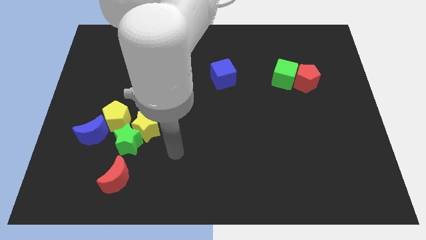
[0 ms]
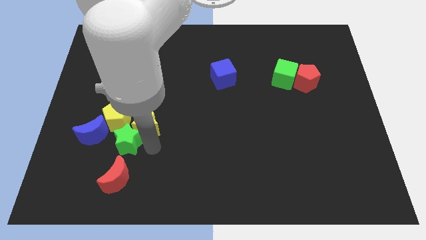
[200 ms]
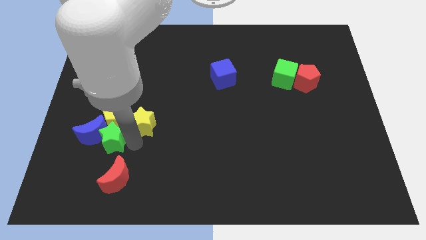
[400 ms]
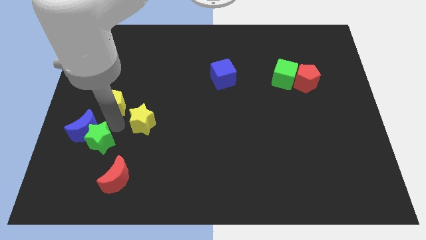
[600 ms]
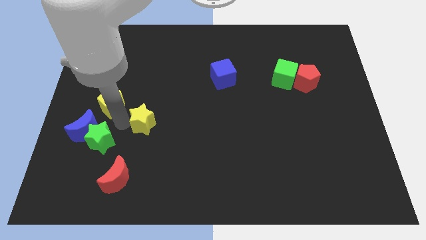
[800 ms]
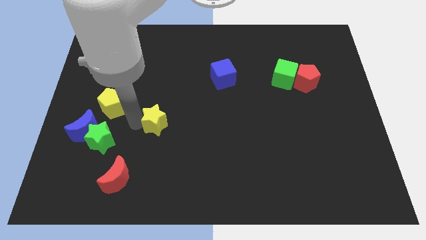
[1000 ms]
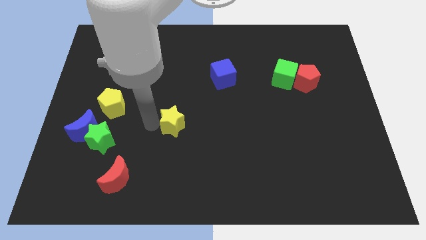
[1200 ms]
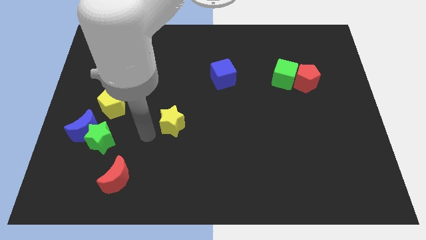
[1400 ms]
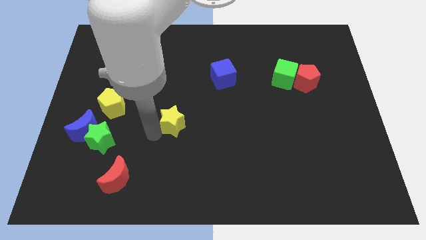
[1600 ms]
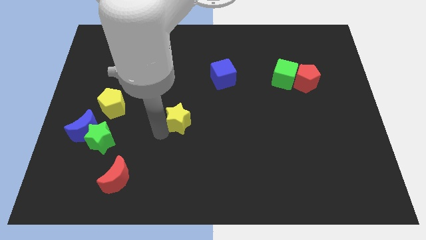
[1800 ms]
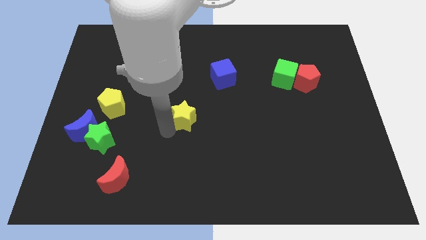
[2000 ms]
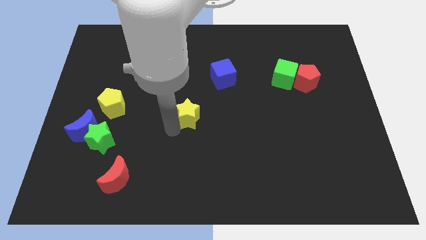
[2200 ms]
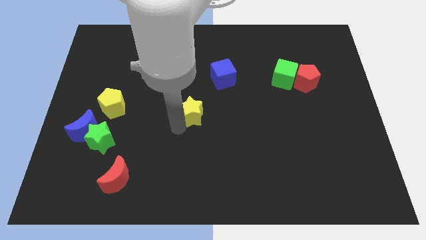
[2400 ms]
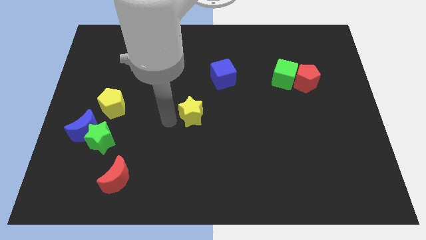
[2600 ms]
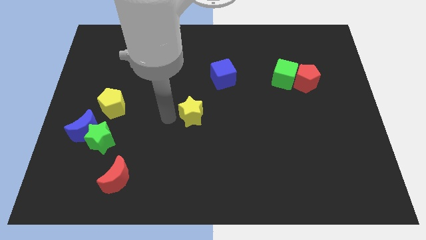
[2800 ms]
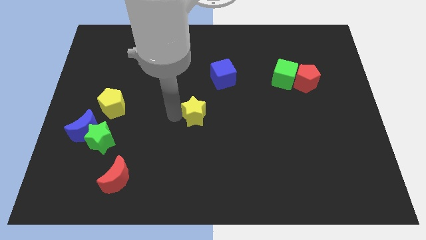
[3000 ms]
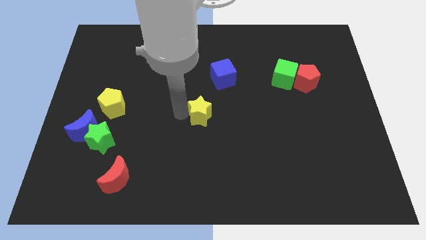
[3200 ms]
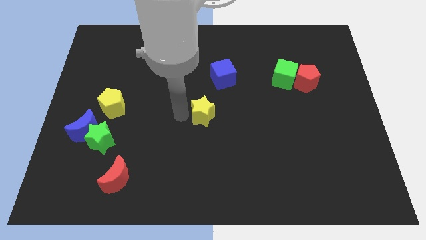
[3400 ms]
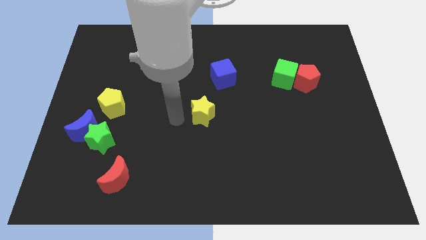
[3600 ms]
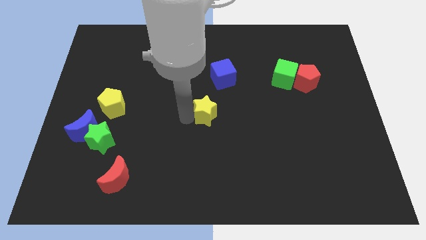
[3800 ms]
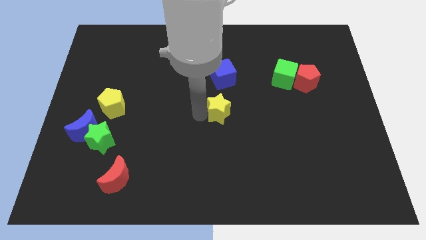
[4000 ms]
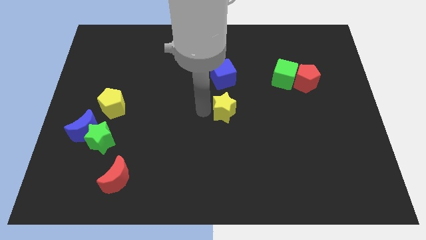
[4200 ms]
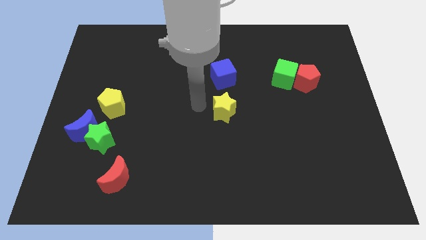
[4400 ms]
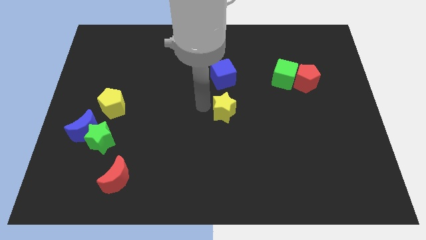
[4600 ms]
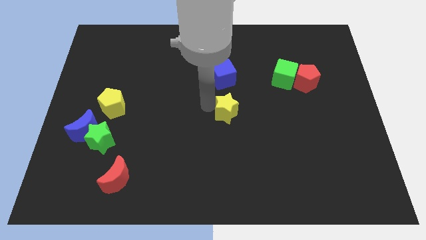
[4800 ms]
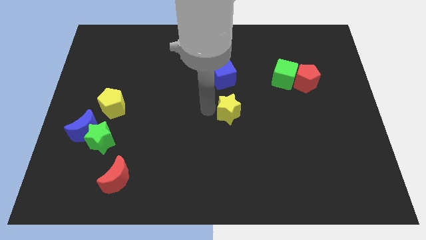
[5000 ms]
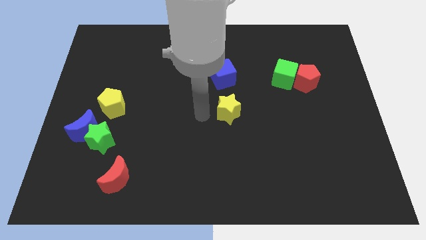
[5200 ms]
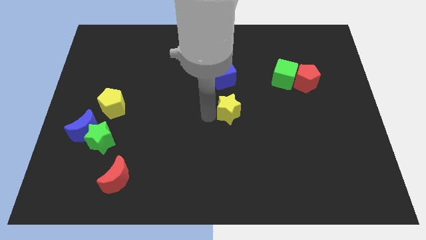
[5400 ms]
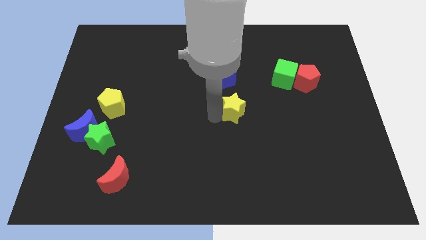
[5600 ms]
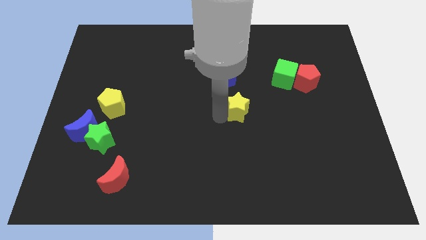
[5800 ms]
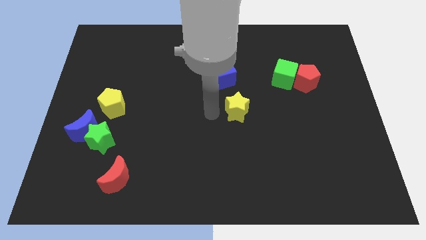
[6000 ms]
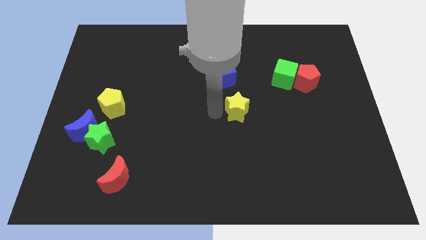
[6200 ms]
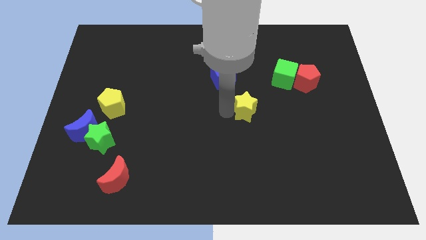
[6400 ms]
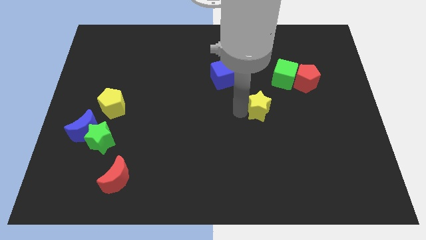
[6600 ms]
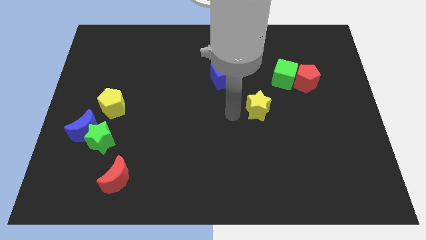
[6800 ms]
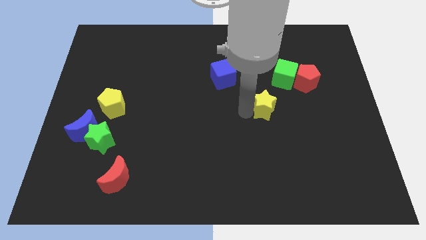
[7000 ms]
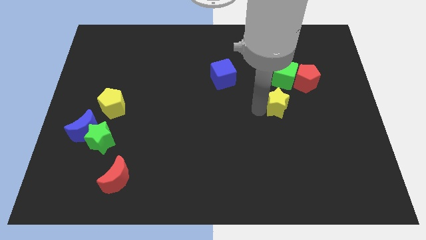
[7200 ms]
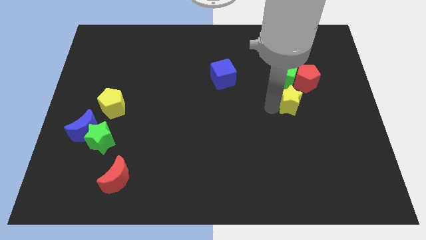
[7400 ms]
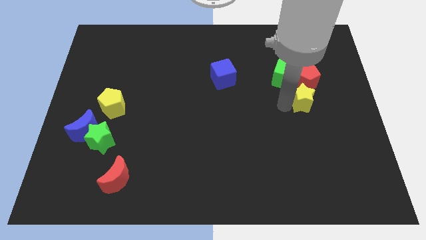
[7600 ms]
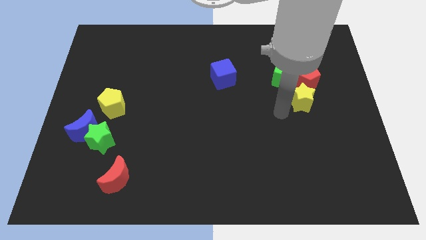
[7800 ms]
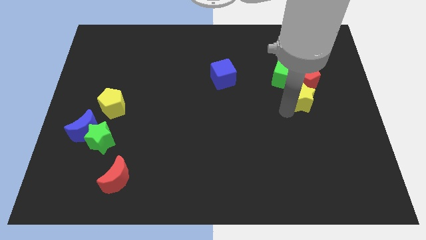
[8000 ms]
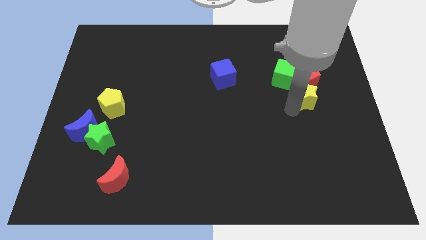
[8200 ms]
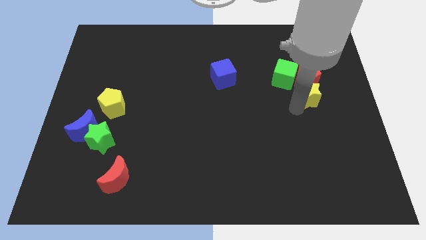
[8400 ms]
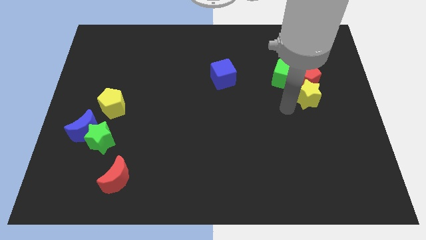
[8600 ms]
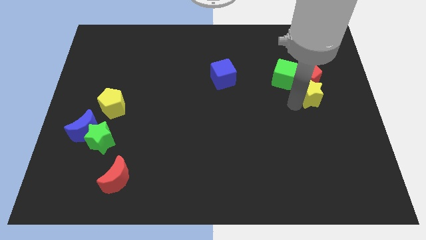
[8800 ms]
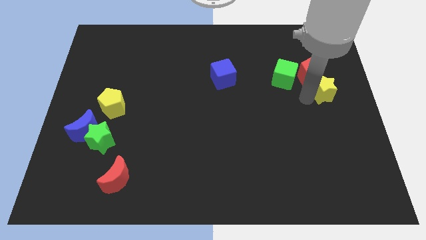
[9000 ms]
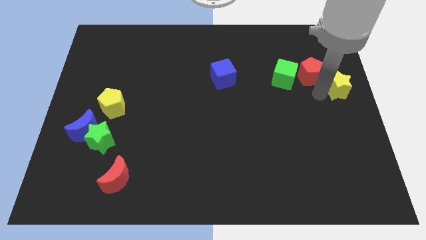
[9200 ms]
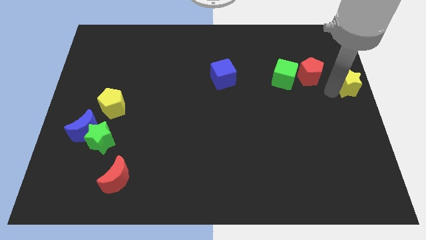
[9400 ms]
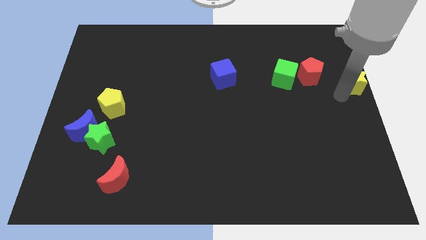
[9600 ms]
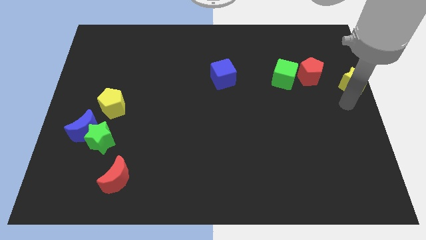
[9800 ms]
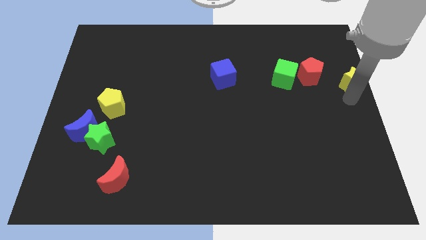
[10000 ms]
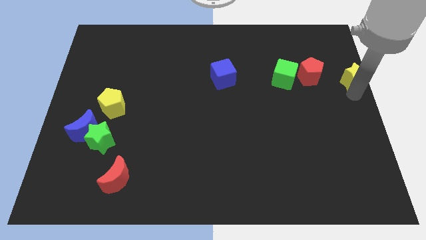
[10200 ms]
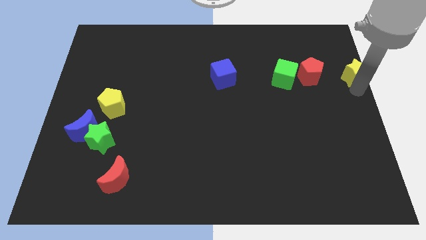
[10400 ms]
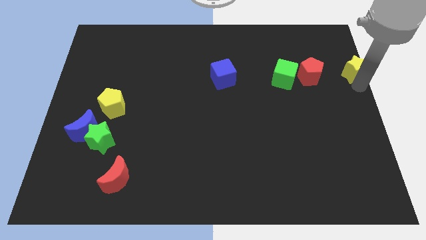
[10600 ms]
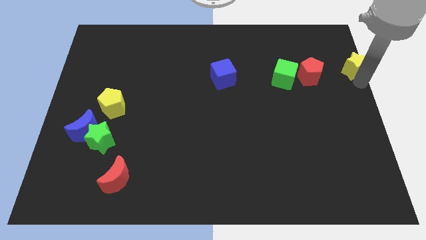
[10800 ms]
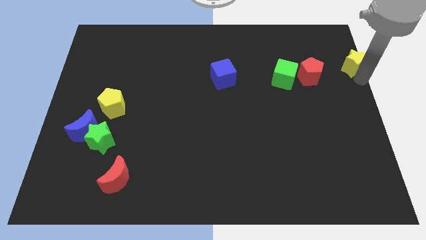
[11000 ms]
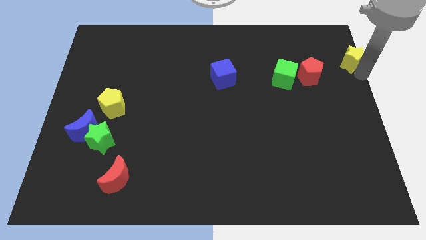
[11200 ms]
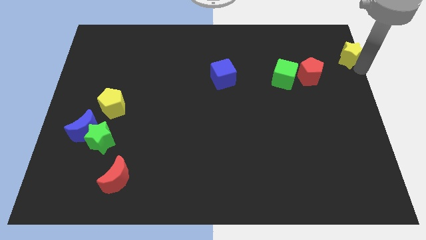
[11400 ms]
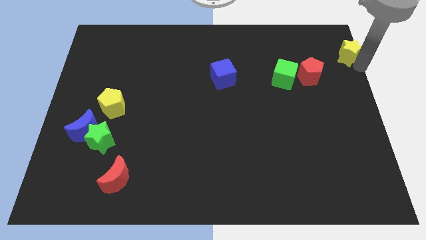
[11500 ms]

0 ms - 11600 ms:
push the yellow star to the top right corner

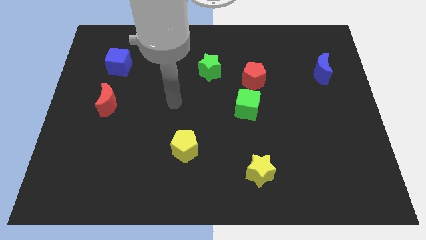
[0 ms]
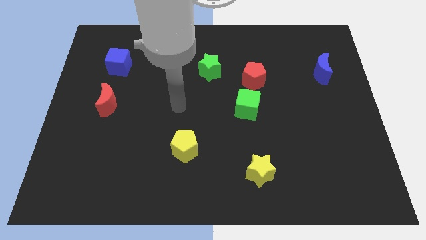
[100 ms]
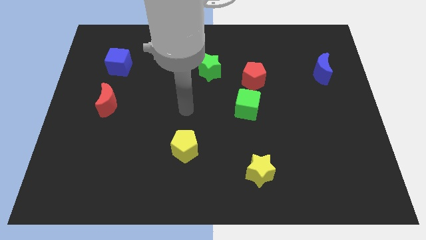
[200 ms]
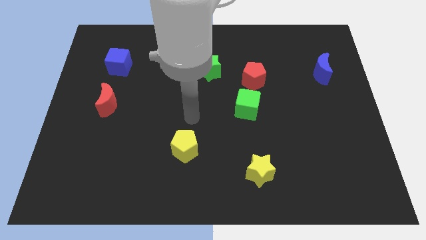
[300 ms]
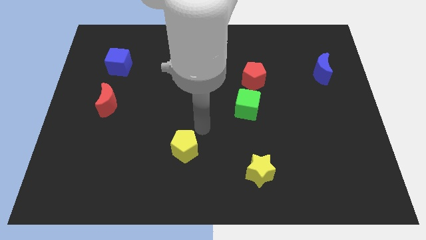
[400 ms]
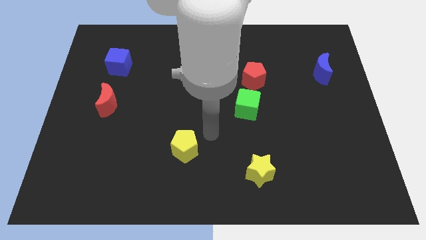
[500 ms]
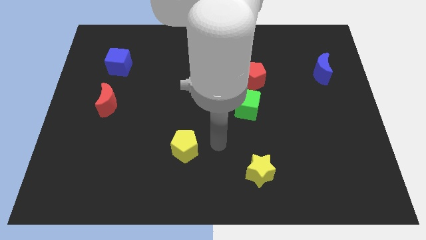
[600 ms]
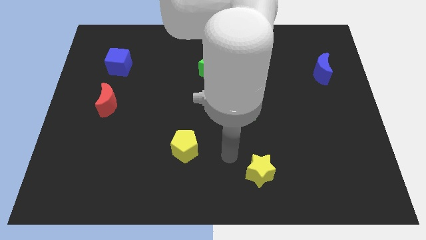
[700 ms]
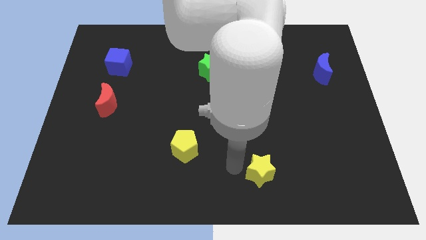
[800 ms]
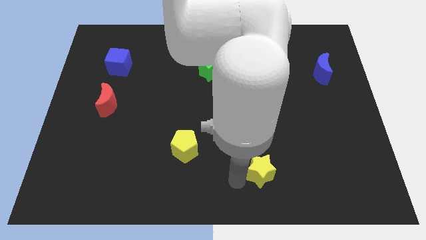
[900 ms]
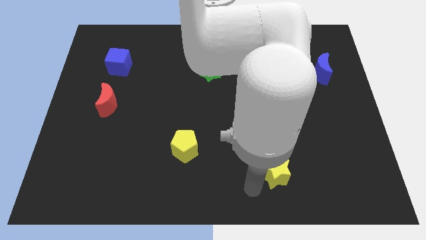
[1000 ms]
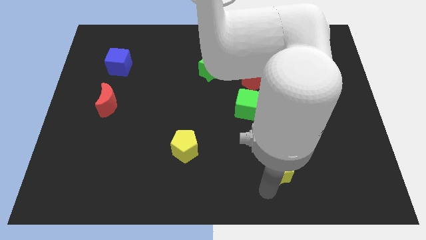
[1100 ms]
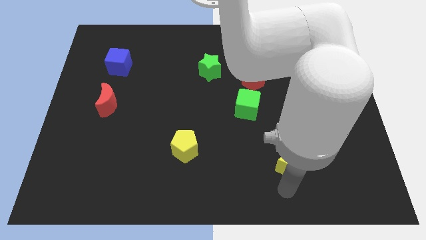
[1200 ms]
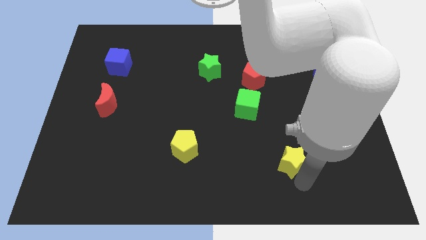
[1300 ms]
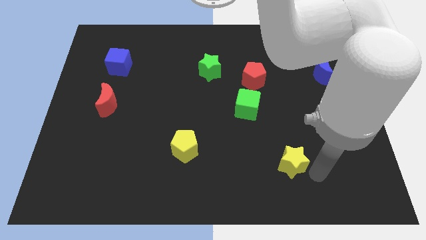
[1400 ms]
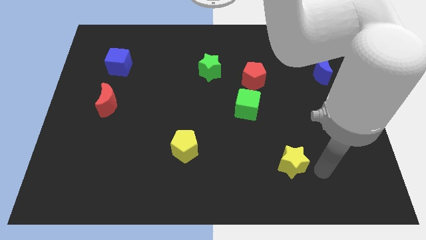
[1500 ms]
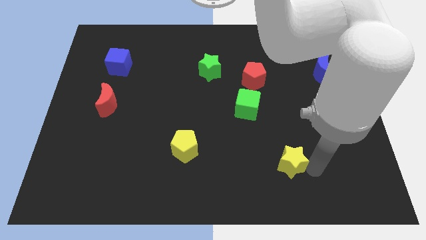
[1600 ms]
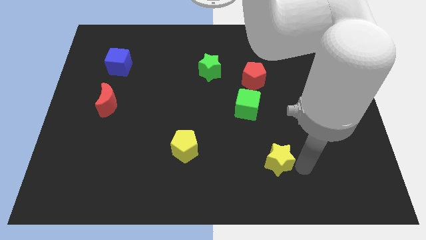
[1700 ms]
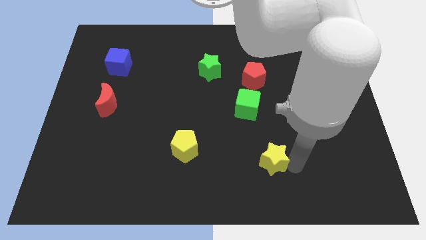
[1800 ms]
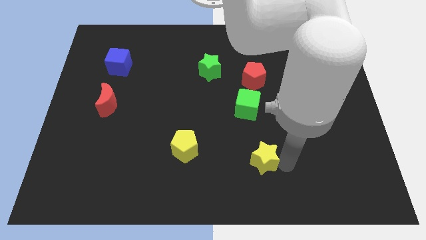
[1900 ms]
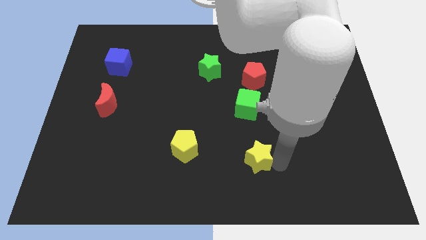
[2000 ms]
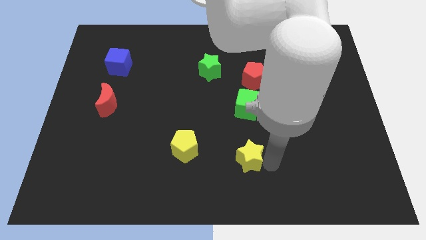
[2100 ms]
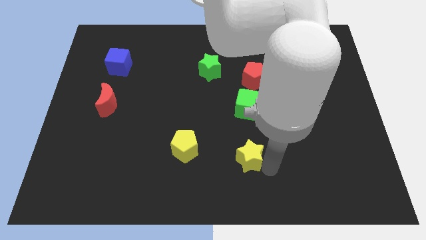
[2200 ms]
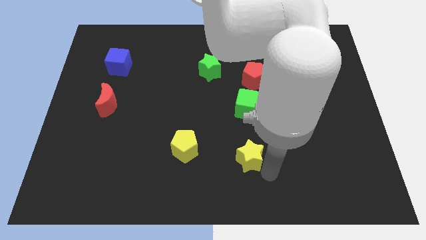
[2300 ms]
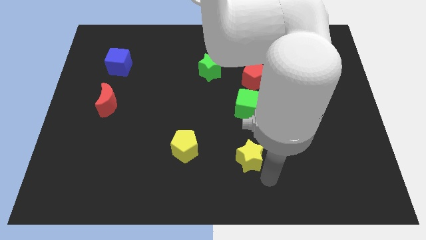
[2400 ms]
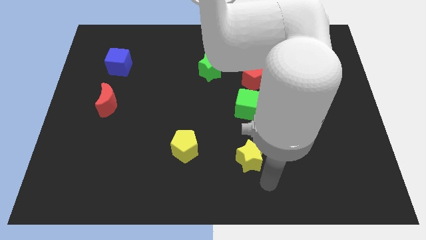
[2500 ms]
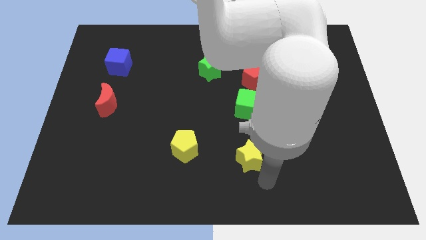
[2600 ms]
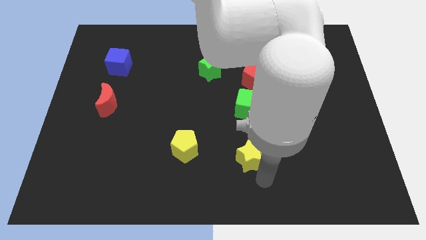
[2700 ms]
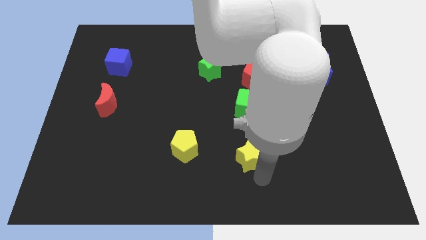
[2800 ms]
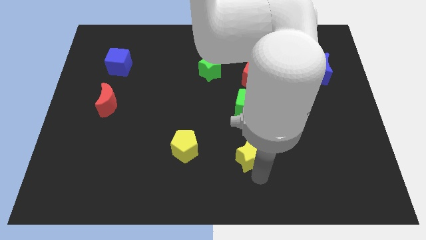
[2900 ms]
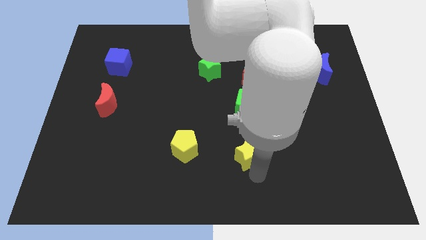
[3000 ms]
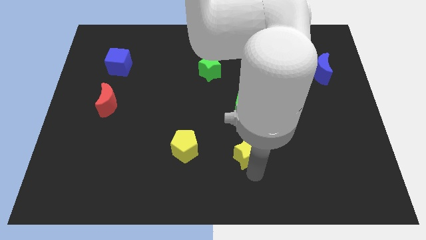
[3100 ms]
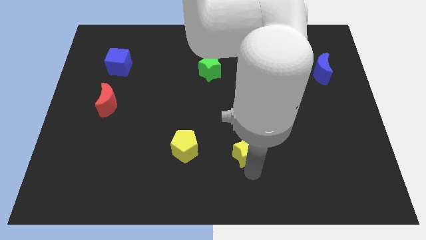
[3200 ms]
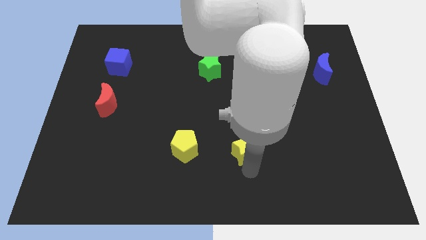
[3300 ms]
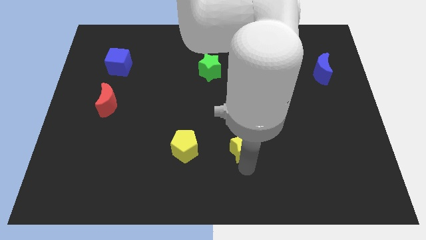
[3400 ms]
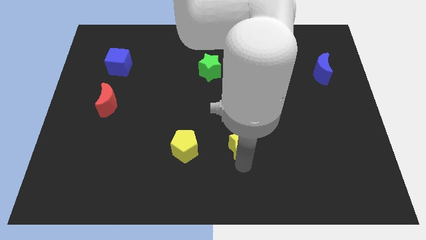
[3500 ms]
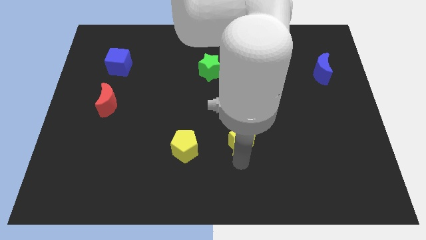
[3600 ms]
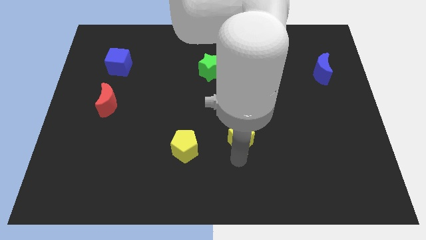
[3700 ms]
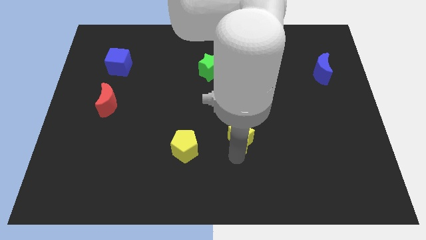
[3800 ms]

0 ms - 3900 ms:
move the yellow star to the middle
